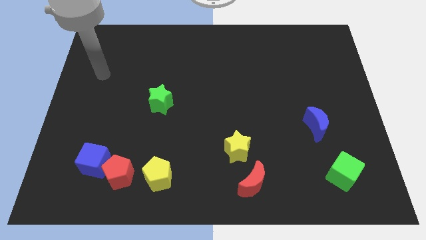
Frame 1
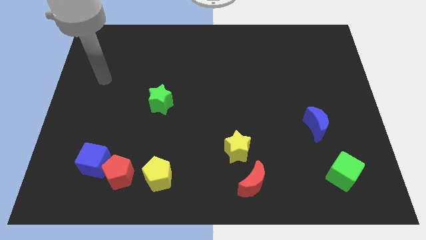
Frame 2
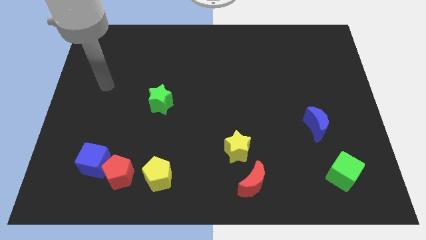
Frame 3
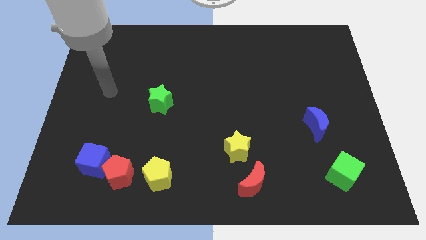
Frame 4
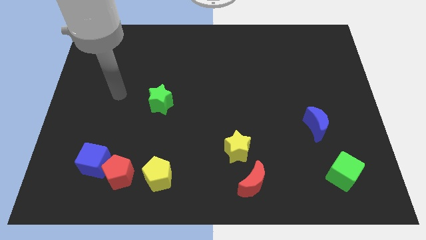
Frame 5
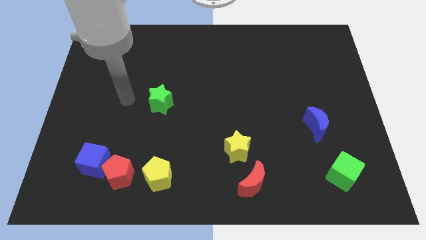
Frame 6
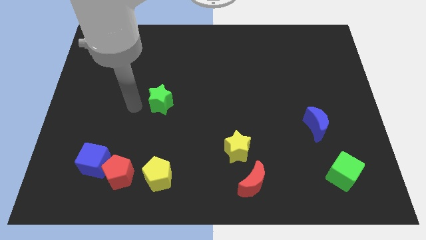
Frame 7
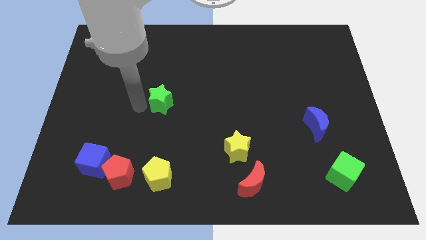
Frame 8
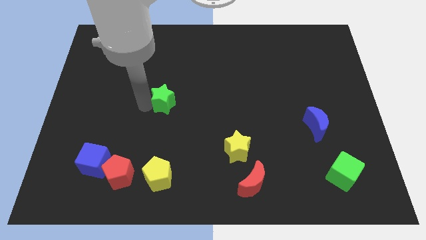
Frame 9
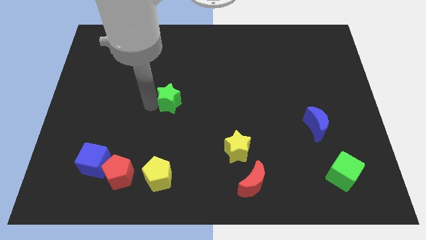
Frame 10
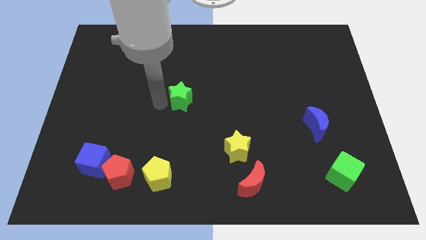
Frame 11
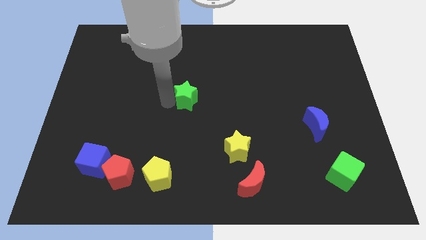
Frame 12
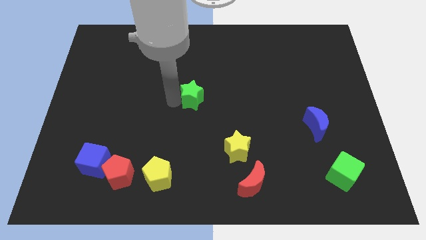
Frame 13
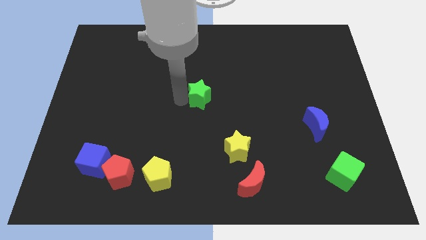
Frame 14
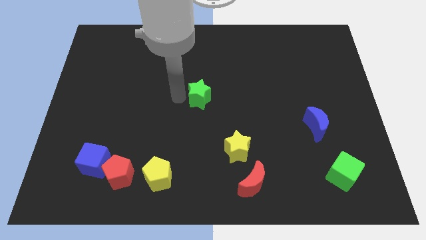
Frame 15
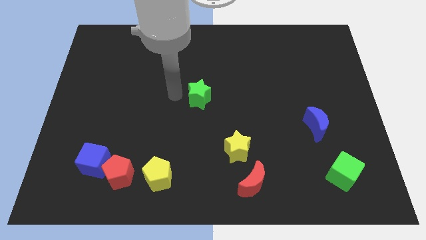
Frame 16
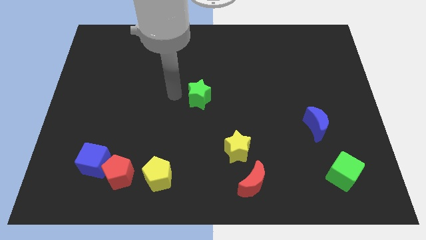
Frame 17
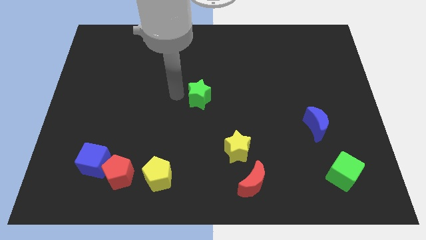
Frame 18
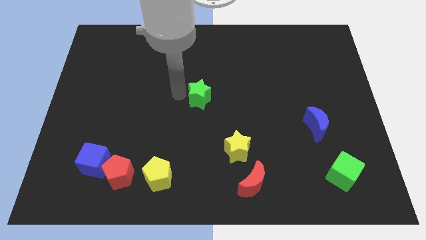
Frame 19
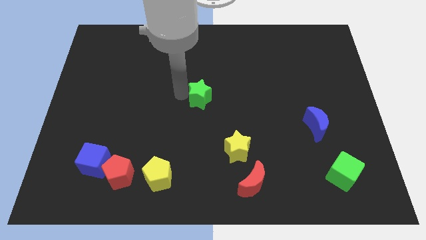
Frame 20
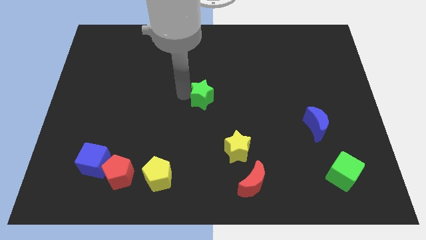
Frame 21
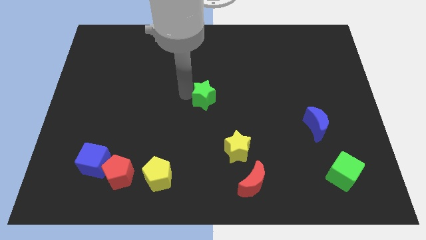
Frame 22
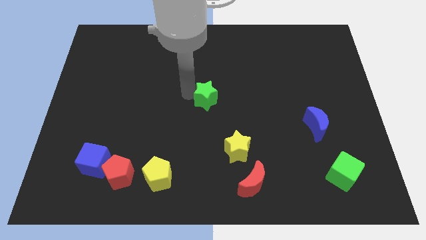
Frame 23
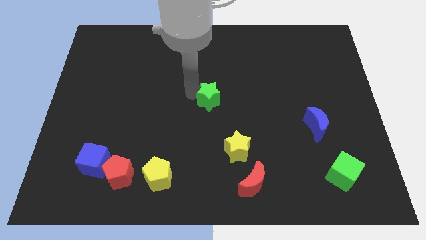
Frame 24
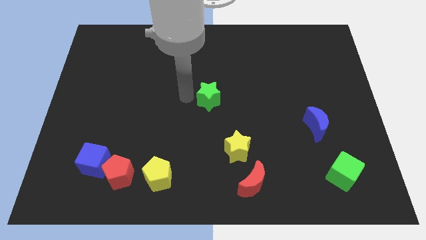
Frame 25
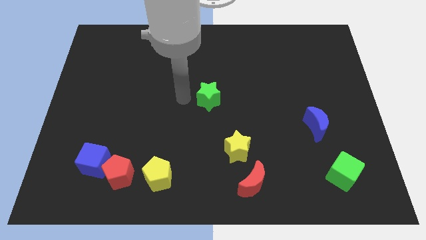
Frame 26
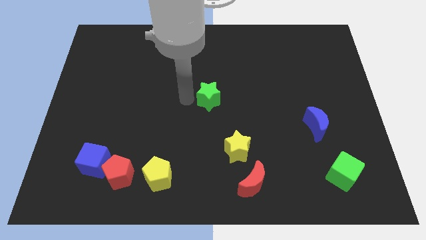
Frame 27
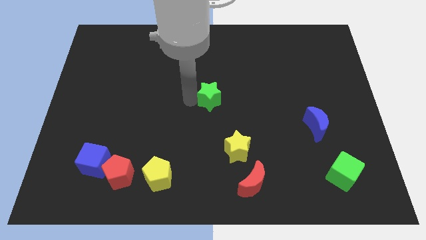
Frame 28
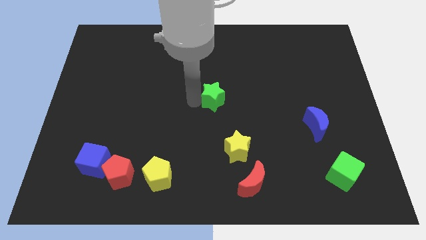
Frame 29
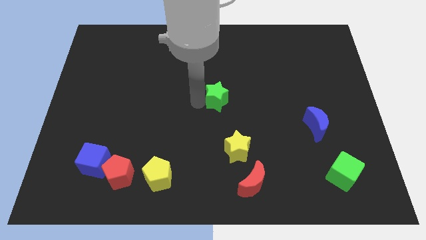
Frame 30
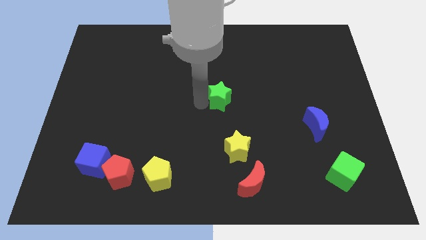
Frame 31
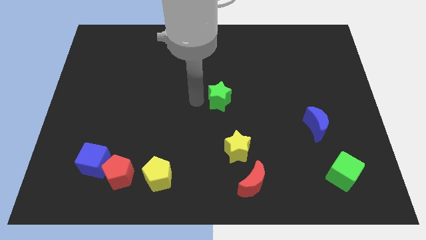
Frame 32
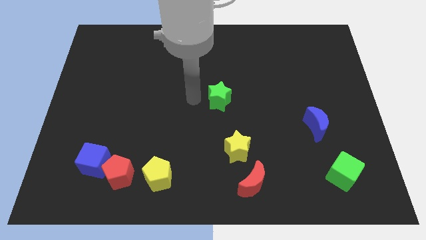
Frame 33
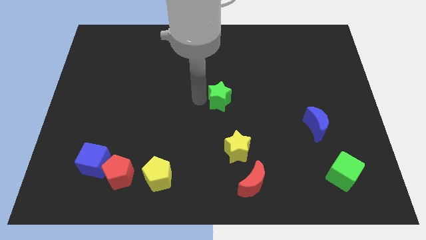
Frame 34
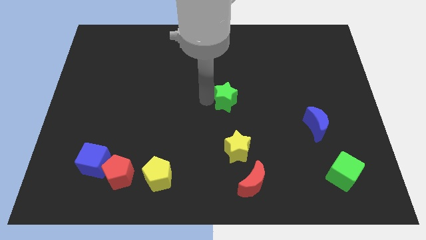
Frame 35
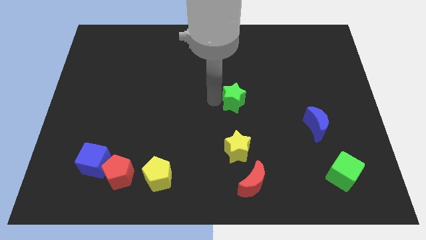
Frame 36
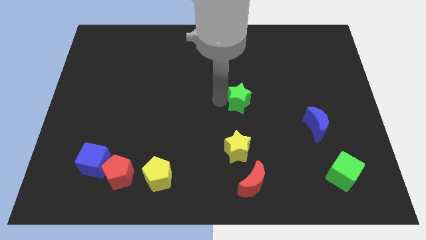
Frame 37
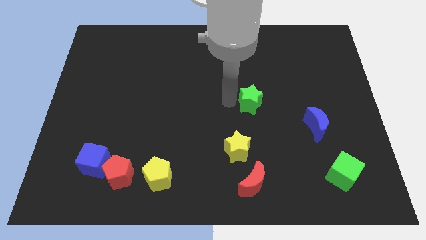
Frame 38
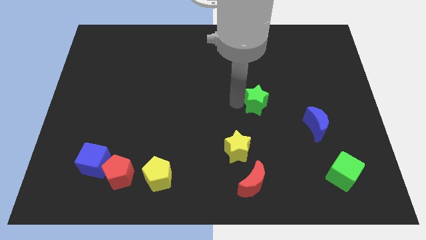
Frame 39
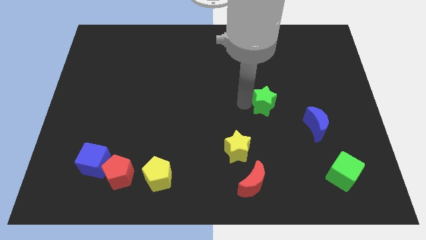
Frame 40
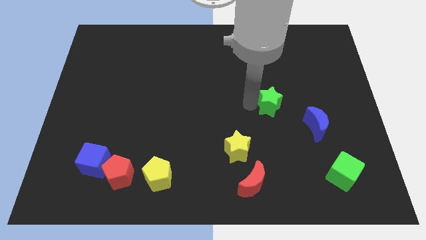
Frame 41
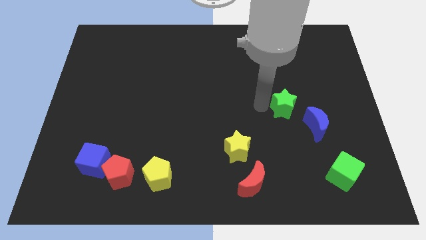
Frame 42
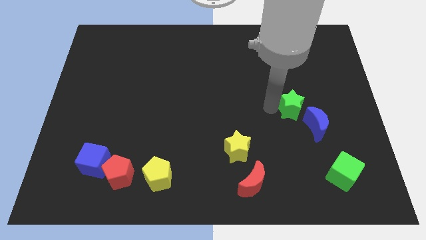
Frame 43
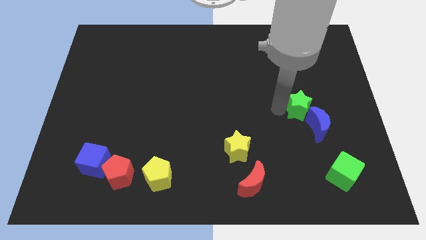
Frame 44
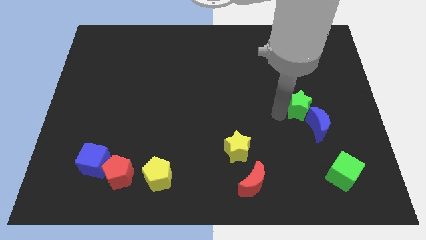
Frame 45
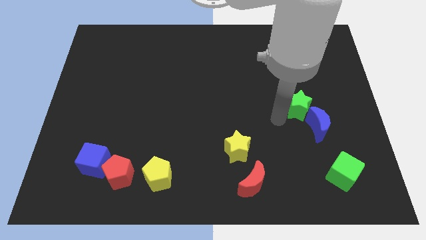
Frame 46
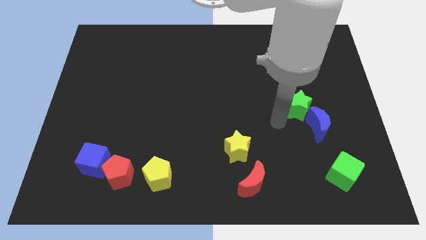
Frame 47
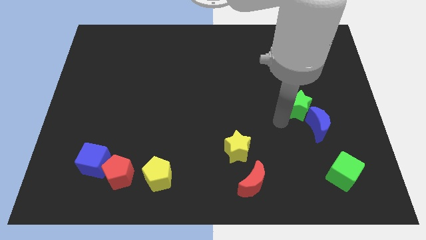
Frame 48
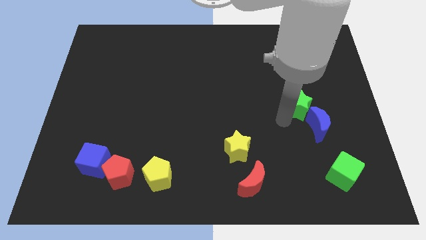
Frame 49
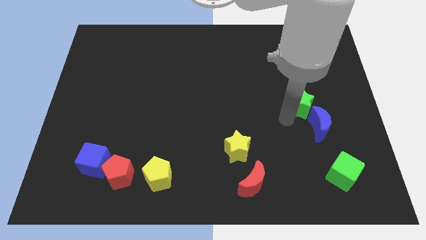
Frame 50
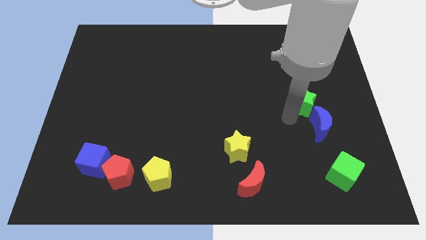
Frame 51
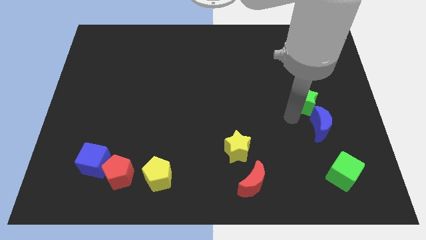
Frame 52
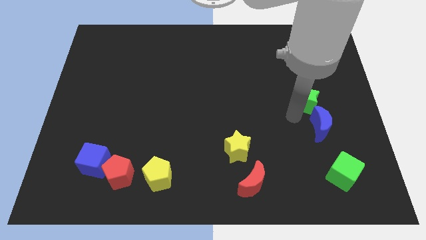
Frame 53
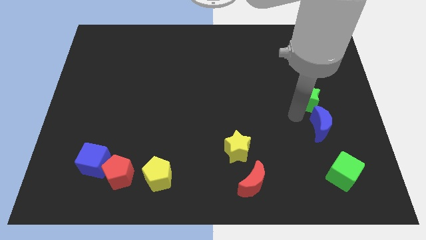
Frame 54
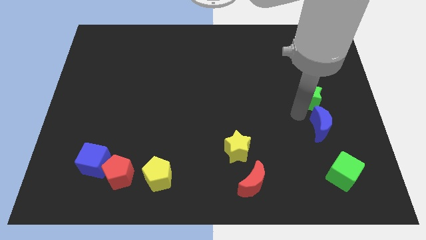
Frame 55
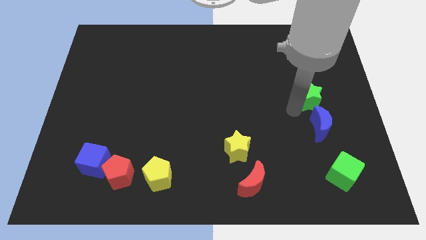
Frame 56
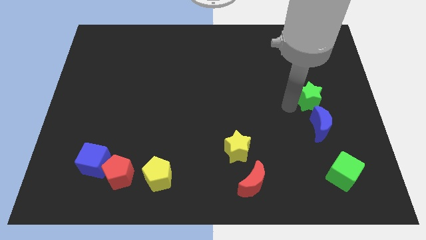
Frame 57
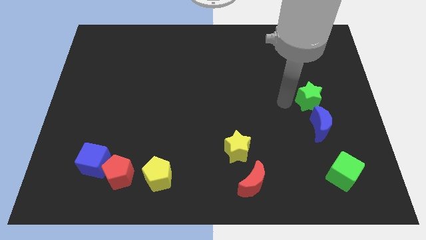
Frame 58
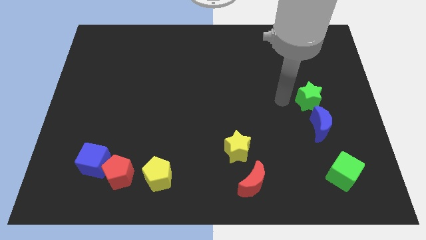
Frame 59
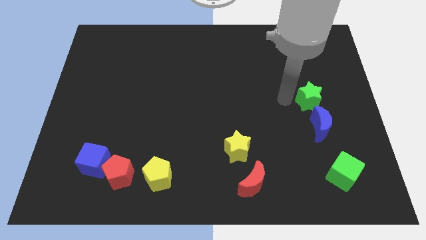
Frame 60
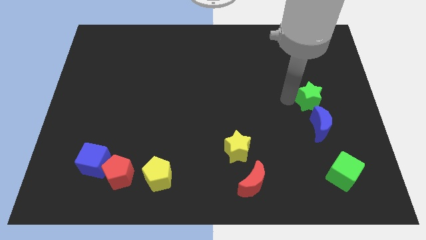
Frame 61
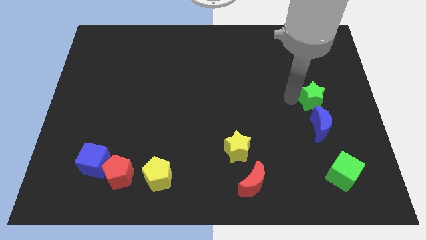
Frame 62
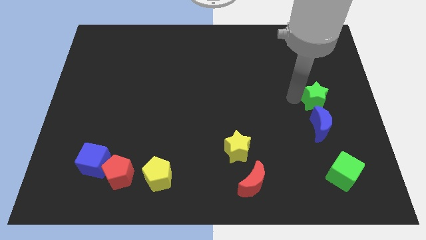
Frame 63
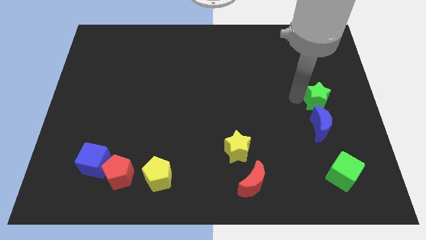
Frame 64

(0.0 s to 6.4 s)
push the green star to the right side of the board
